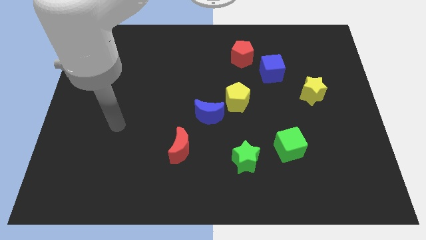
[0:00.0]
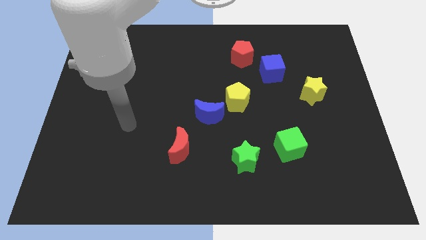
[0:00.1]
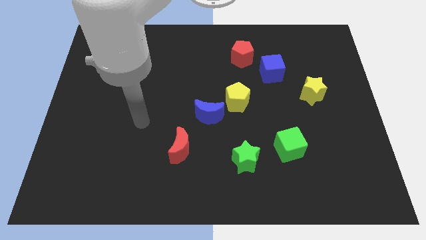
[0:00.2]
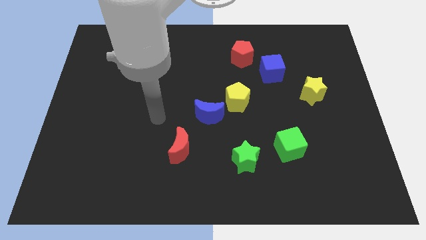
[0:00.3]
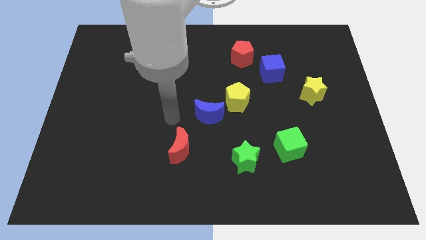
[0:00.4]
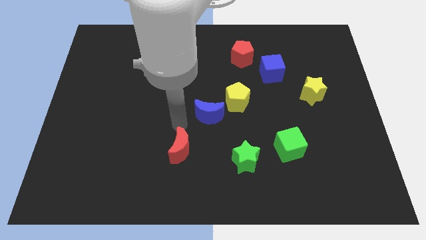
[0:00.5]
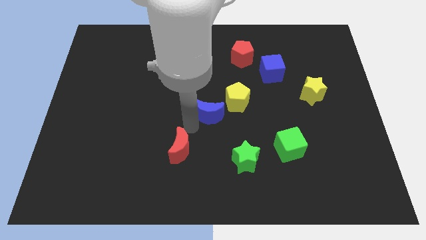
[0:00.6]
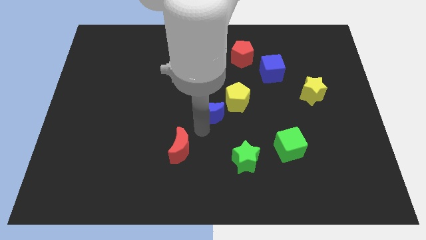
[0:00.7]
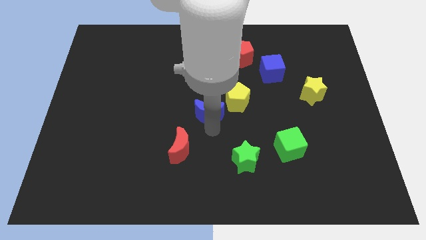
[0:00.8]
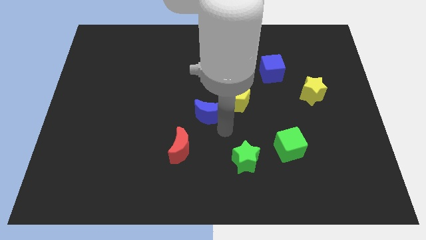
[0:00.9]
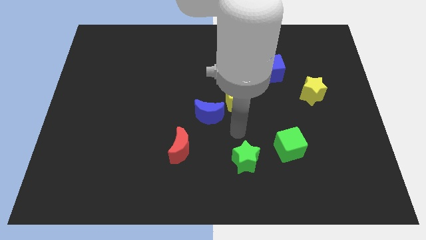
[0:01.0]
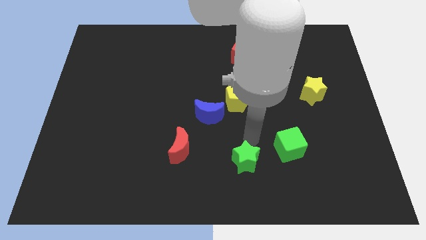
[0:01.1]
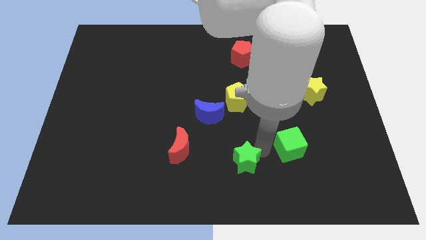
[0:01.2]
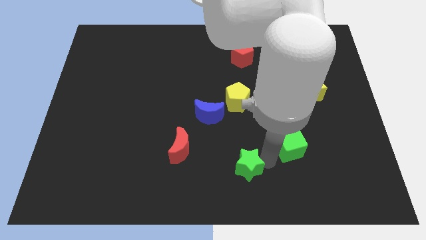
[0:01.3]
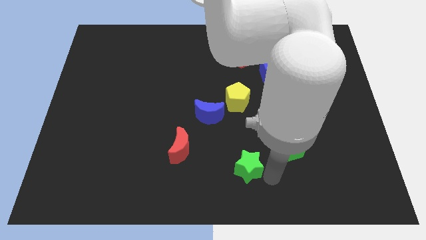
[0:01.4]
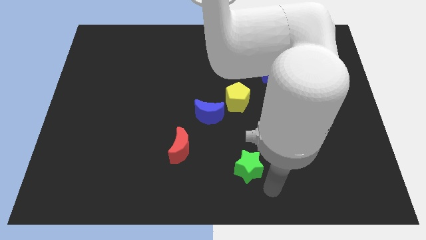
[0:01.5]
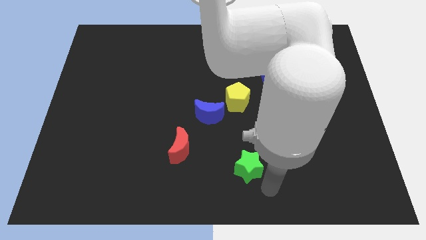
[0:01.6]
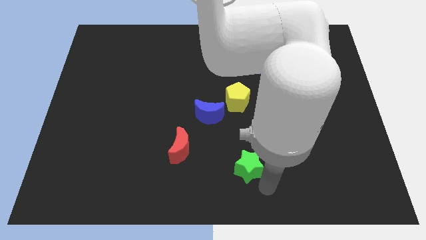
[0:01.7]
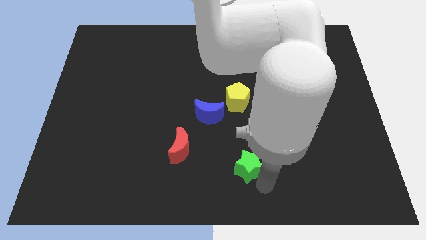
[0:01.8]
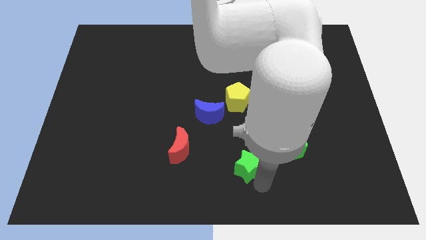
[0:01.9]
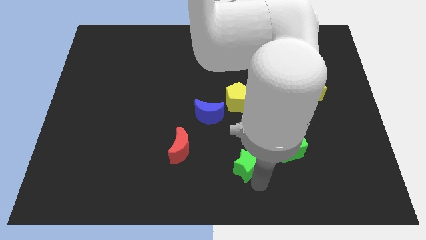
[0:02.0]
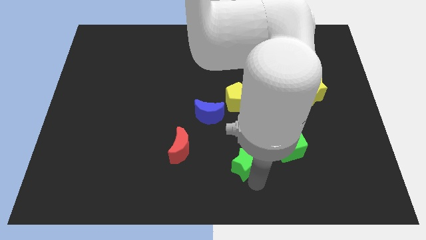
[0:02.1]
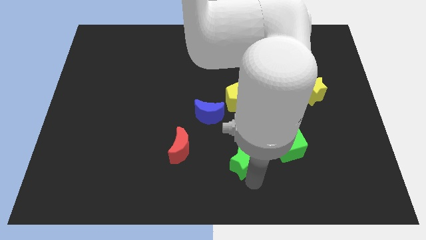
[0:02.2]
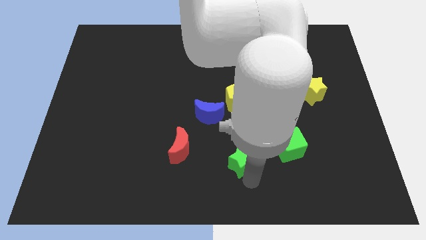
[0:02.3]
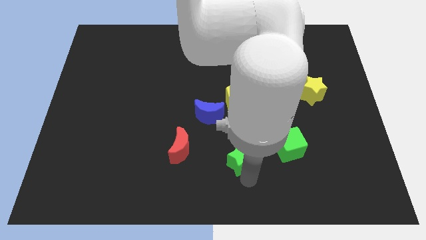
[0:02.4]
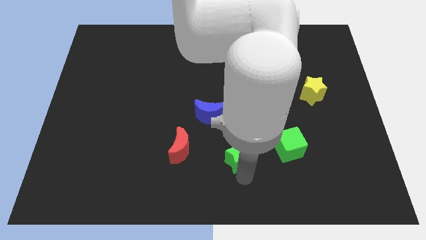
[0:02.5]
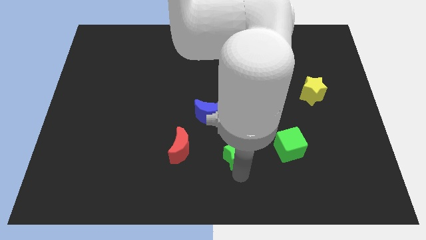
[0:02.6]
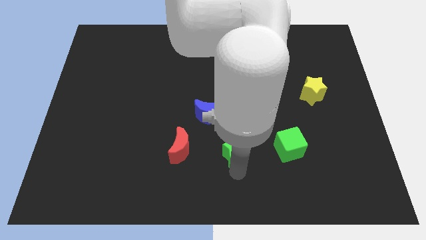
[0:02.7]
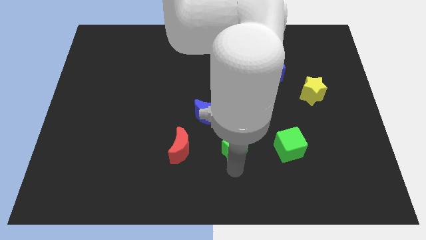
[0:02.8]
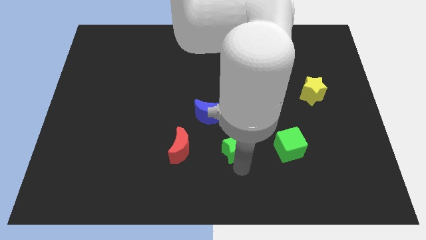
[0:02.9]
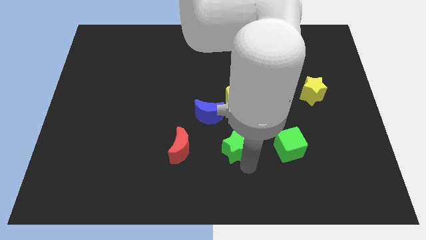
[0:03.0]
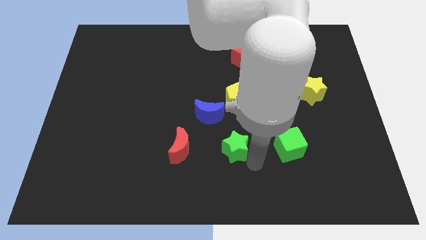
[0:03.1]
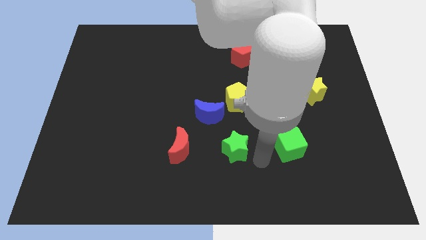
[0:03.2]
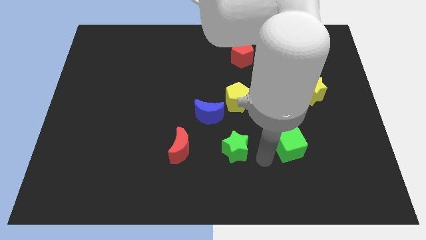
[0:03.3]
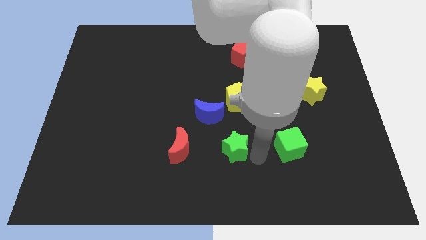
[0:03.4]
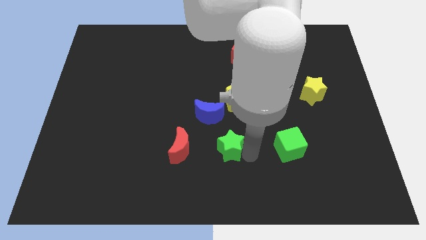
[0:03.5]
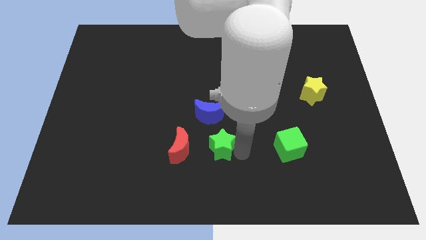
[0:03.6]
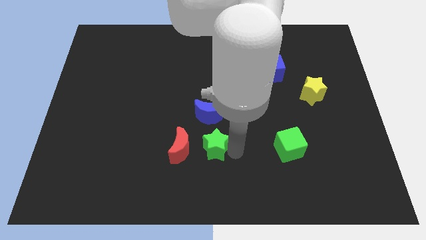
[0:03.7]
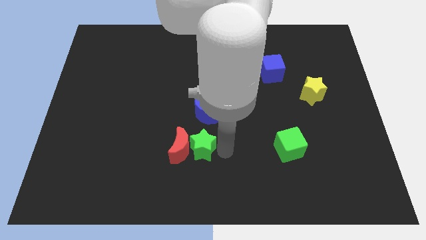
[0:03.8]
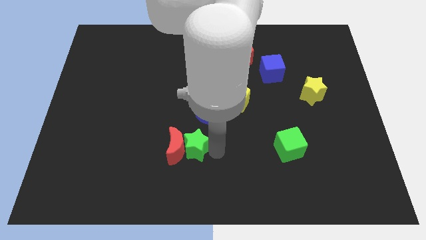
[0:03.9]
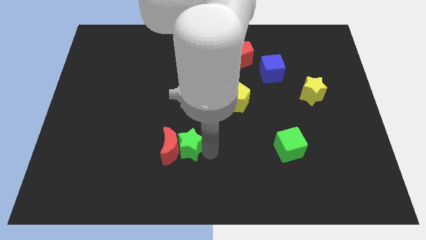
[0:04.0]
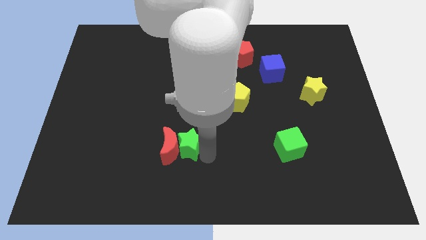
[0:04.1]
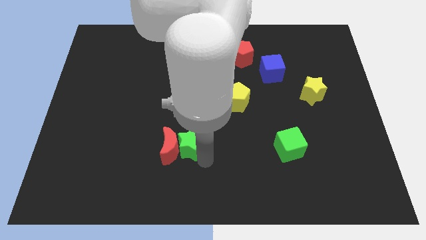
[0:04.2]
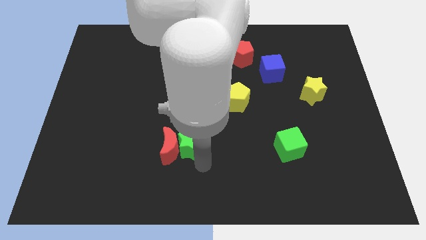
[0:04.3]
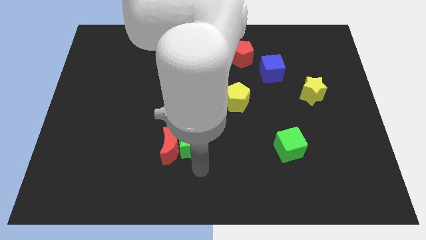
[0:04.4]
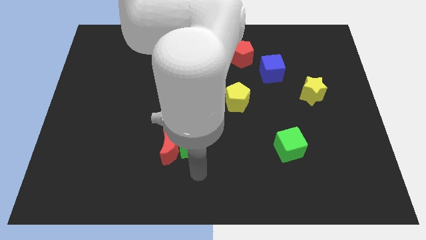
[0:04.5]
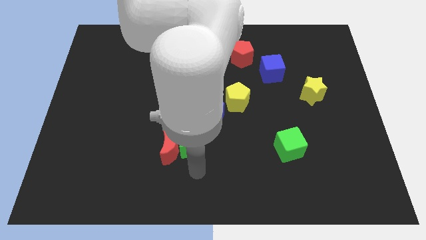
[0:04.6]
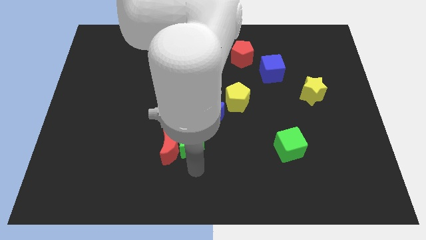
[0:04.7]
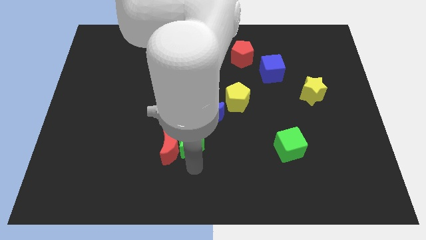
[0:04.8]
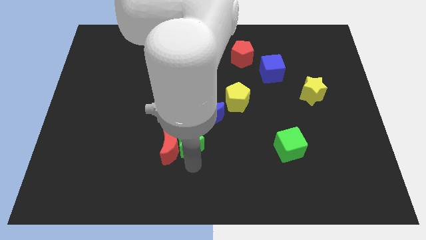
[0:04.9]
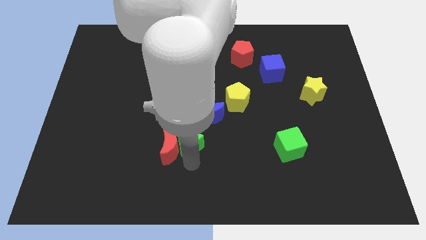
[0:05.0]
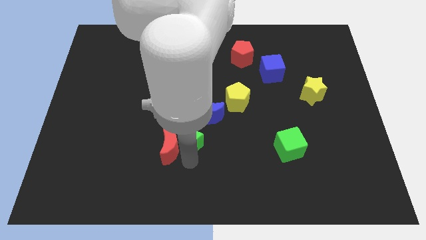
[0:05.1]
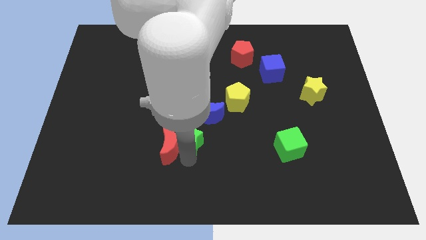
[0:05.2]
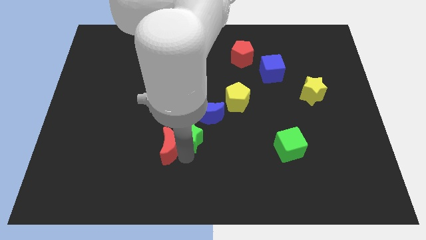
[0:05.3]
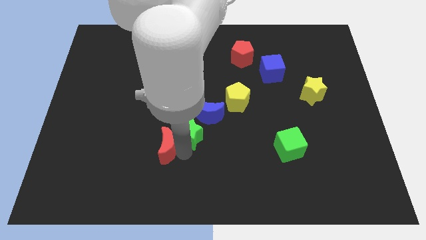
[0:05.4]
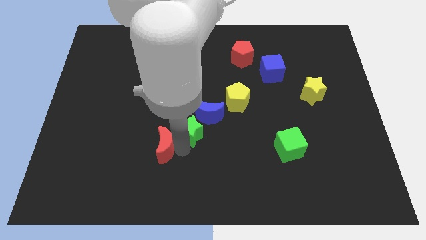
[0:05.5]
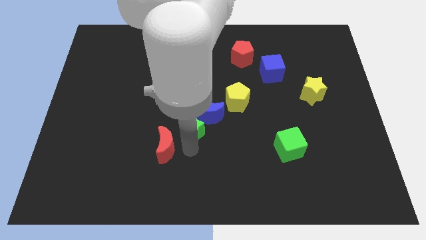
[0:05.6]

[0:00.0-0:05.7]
move the green star to the left side of the blue moon

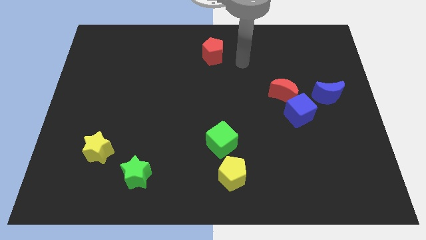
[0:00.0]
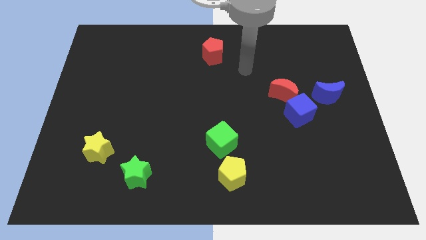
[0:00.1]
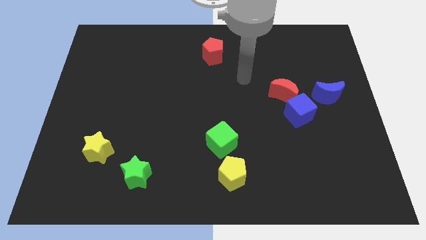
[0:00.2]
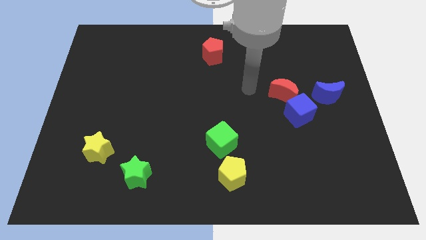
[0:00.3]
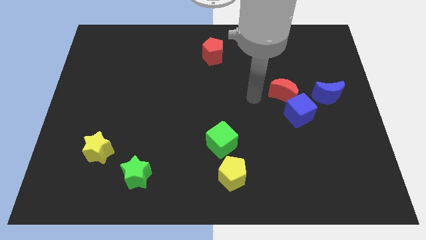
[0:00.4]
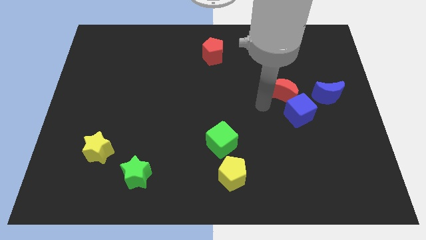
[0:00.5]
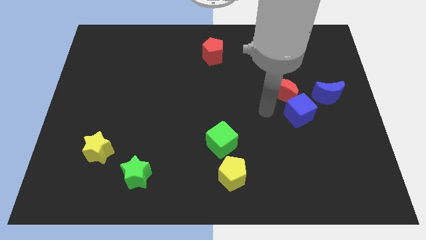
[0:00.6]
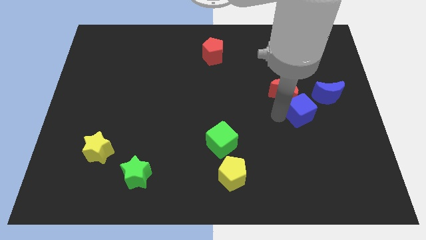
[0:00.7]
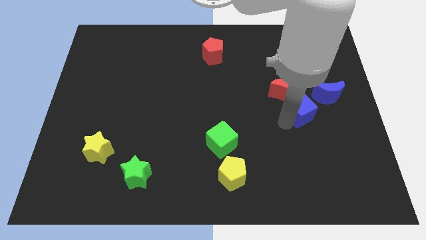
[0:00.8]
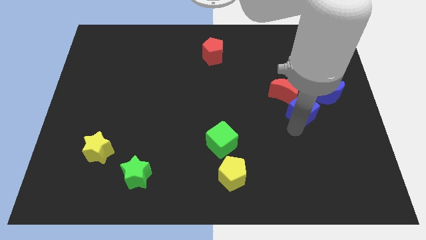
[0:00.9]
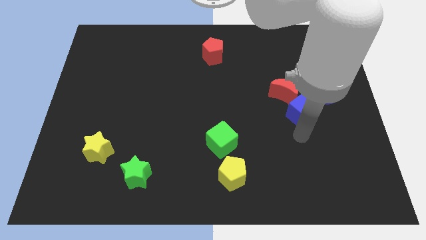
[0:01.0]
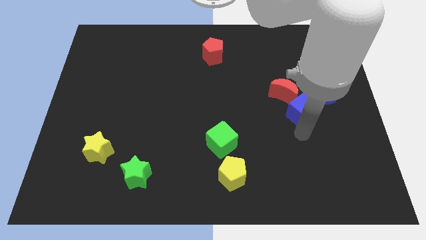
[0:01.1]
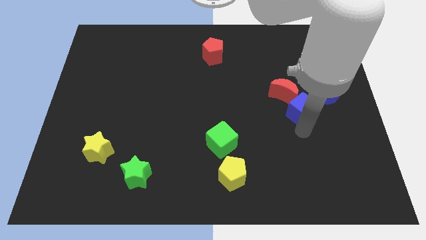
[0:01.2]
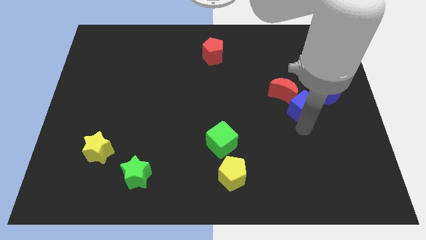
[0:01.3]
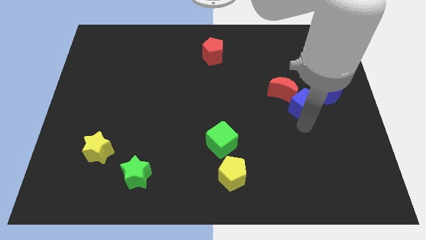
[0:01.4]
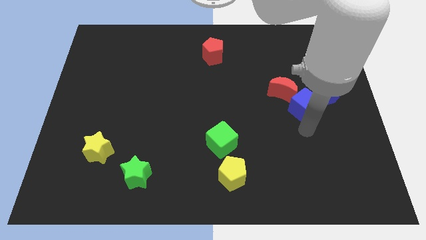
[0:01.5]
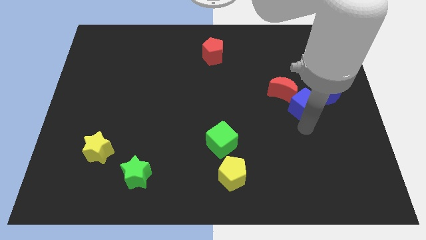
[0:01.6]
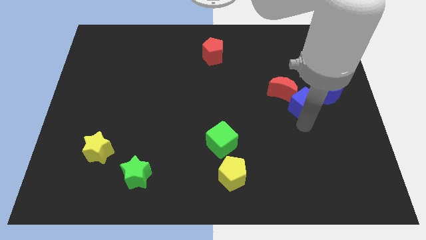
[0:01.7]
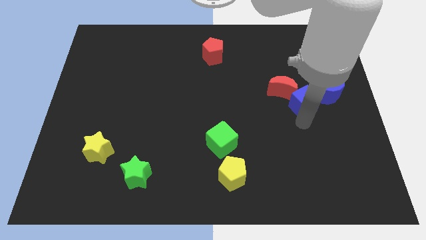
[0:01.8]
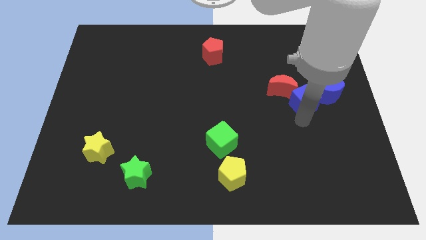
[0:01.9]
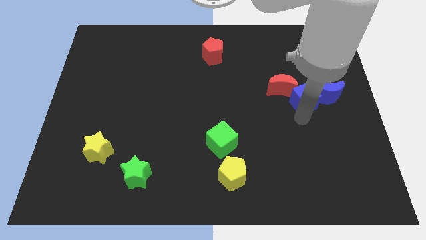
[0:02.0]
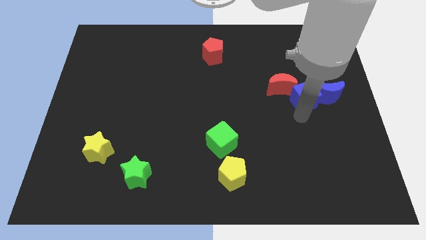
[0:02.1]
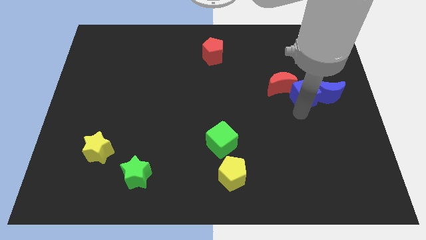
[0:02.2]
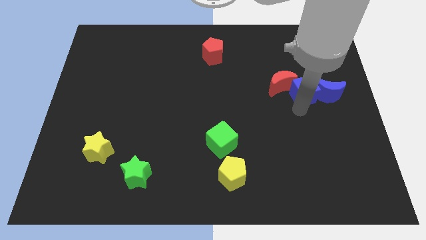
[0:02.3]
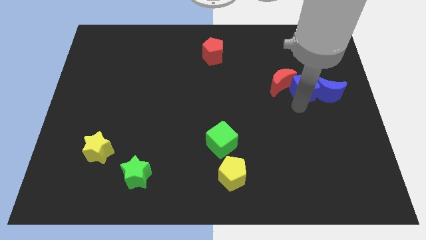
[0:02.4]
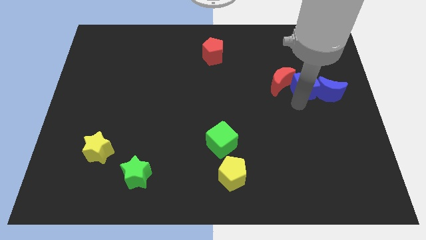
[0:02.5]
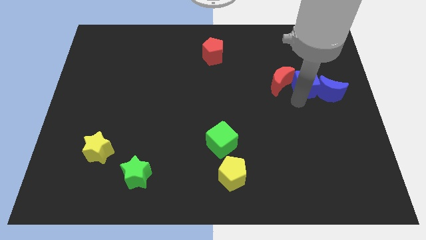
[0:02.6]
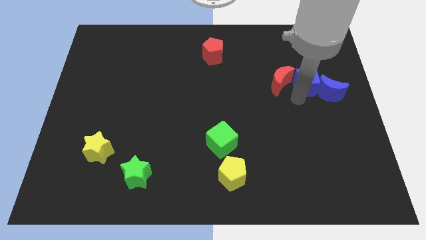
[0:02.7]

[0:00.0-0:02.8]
move the blue cube to the top right of the red moon
